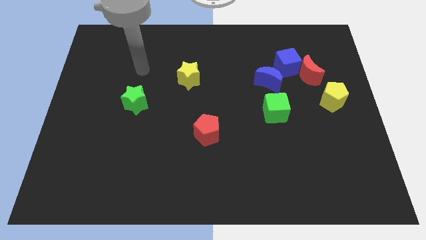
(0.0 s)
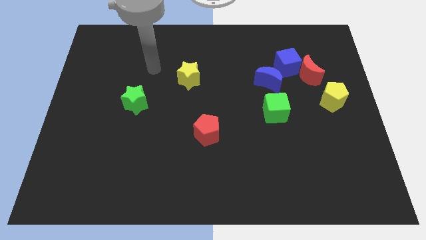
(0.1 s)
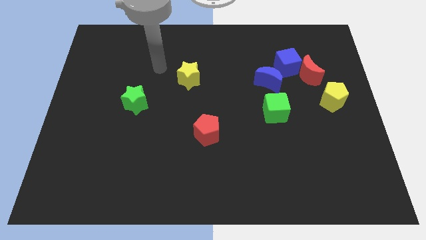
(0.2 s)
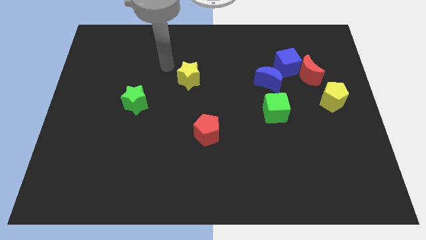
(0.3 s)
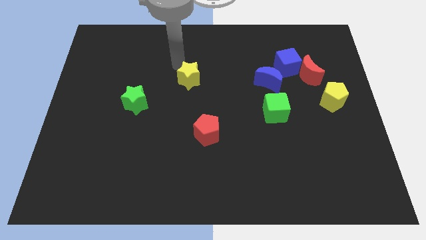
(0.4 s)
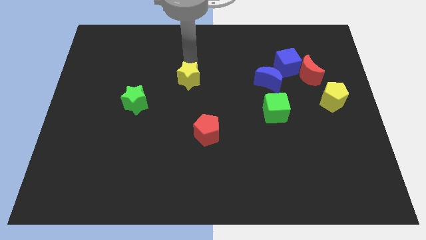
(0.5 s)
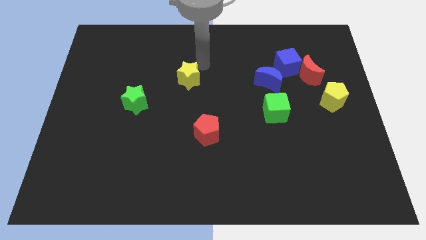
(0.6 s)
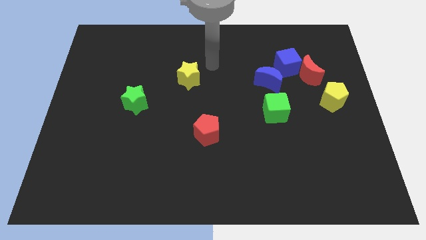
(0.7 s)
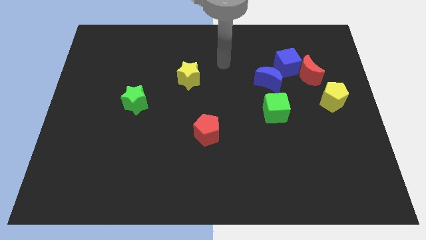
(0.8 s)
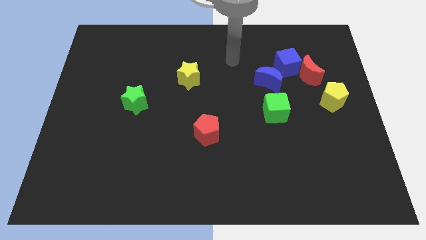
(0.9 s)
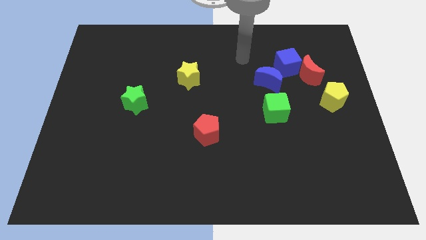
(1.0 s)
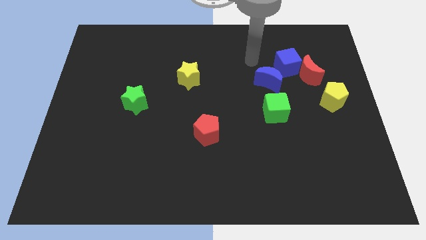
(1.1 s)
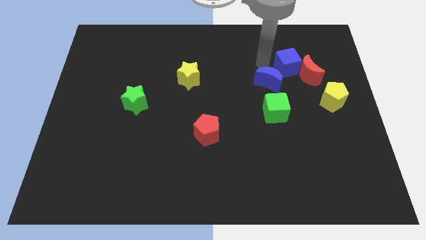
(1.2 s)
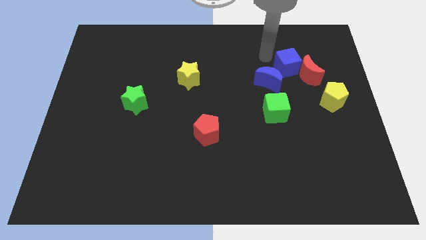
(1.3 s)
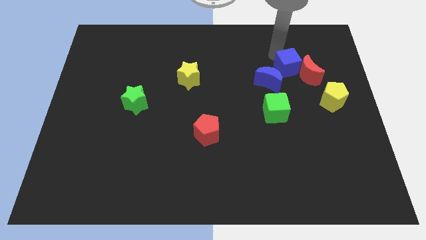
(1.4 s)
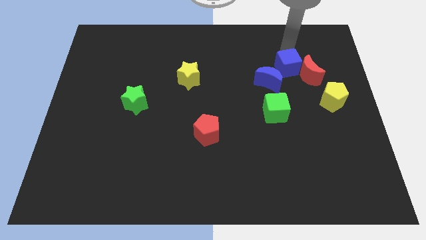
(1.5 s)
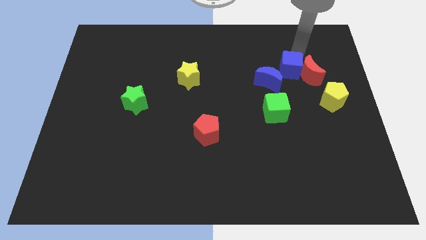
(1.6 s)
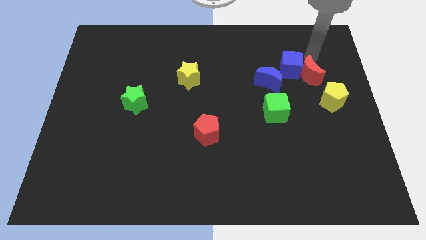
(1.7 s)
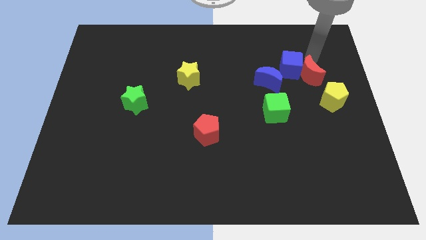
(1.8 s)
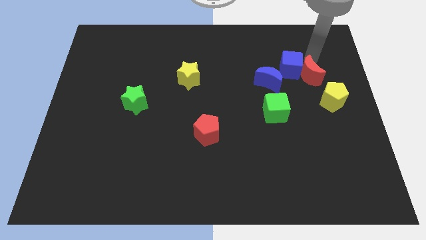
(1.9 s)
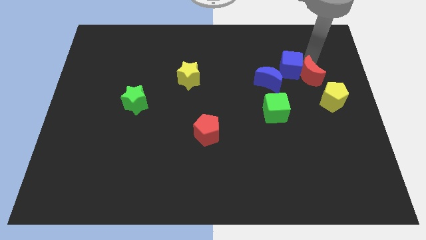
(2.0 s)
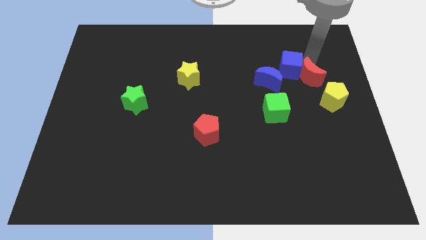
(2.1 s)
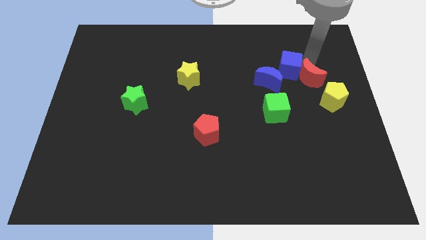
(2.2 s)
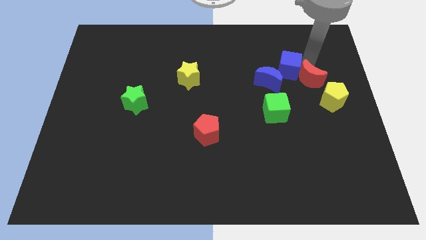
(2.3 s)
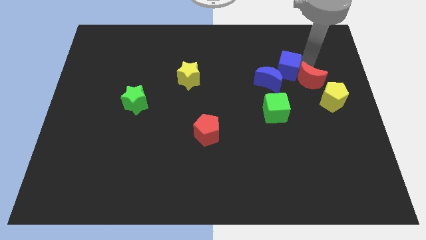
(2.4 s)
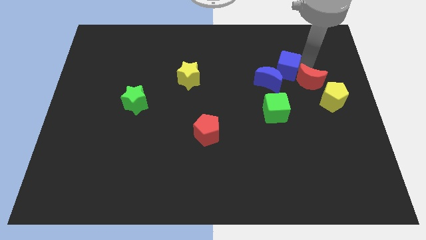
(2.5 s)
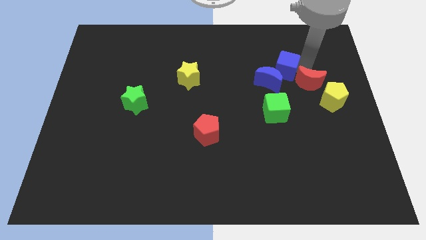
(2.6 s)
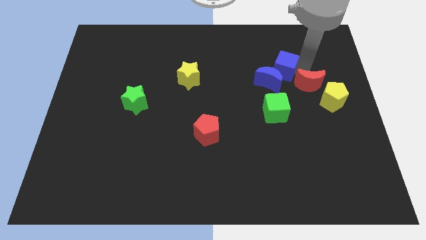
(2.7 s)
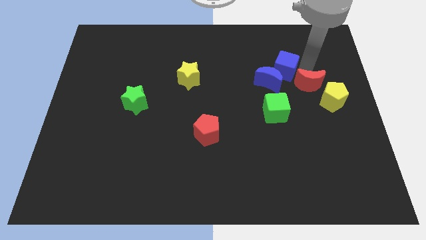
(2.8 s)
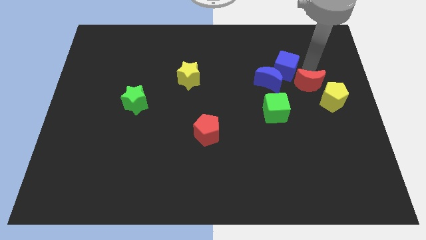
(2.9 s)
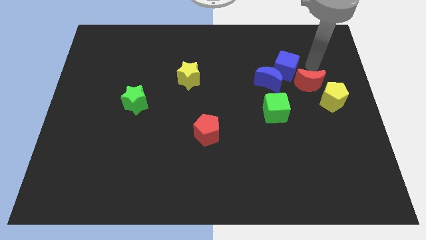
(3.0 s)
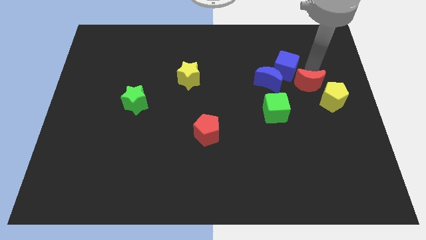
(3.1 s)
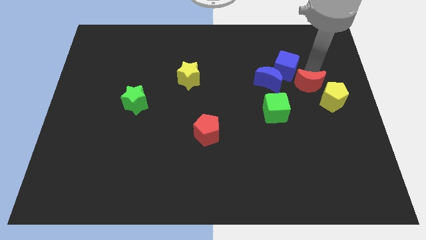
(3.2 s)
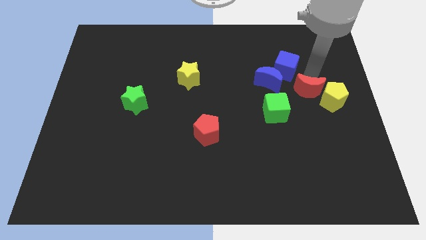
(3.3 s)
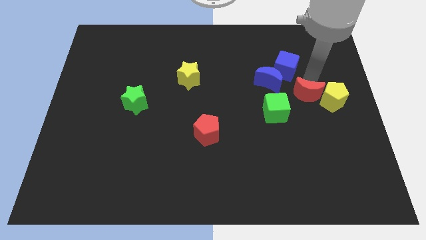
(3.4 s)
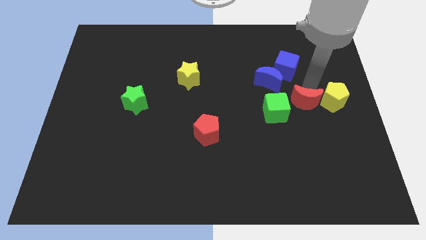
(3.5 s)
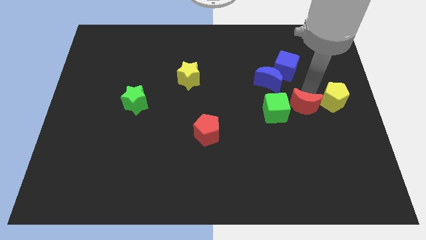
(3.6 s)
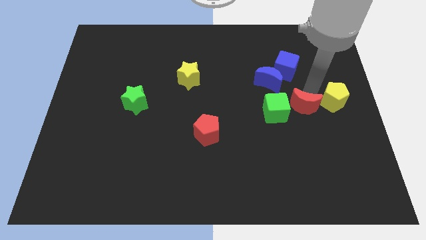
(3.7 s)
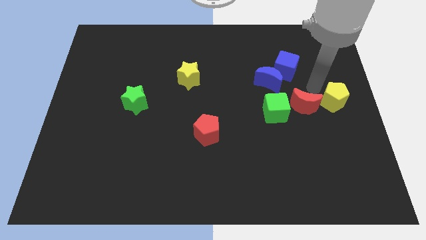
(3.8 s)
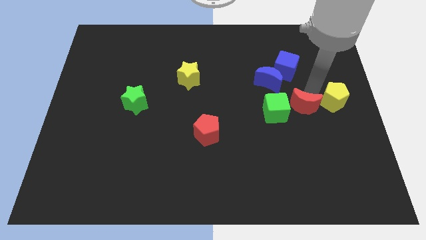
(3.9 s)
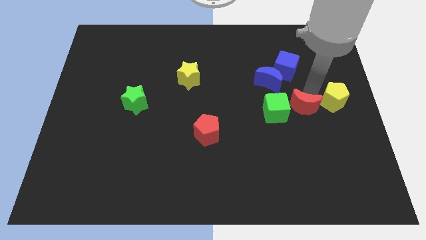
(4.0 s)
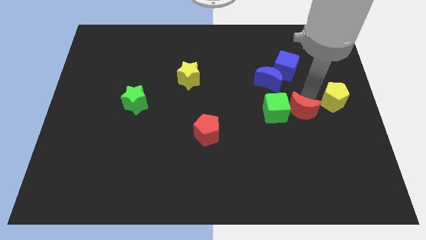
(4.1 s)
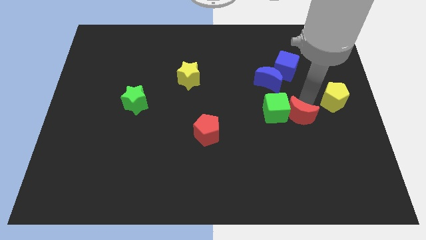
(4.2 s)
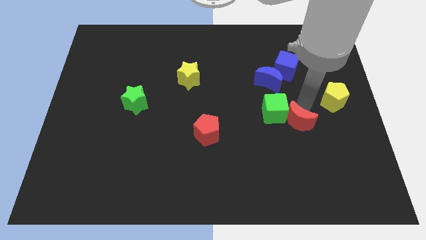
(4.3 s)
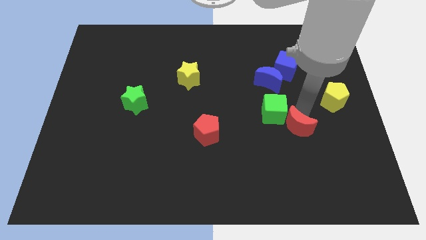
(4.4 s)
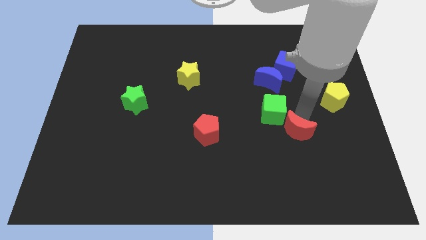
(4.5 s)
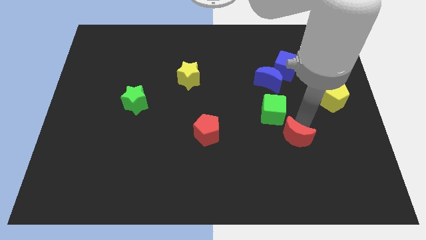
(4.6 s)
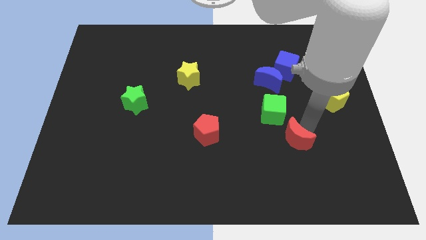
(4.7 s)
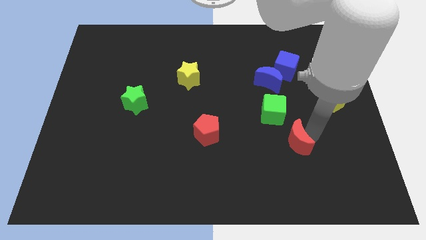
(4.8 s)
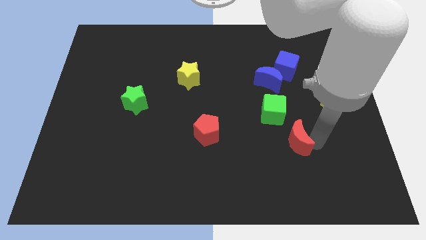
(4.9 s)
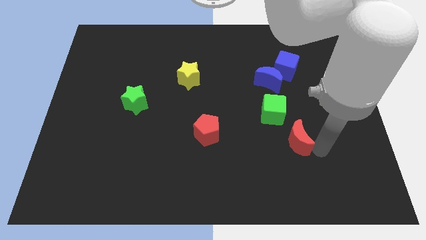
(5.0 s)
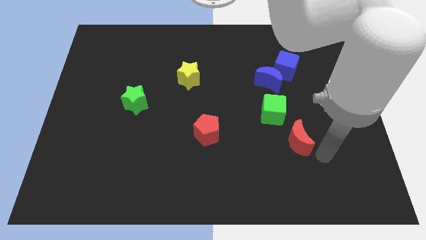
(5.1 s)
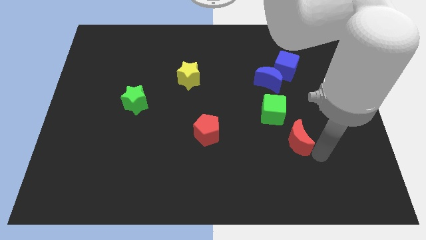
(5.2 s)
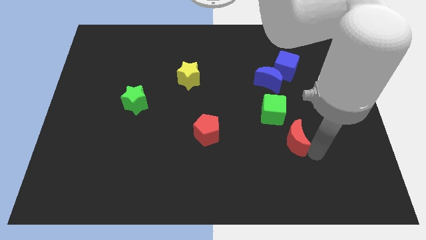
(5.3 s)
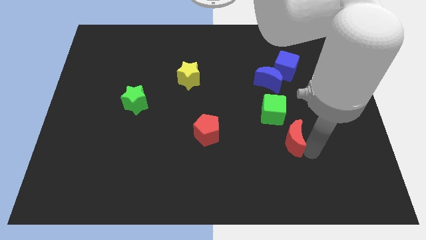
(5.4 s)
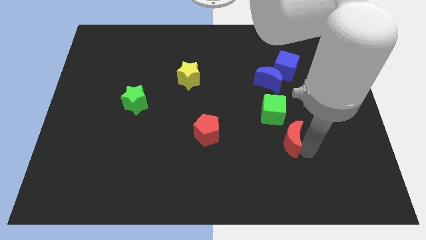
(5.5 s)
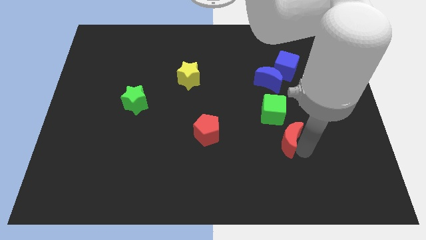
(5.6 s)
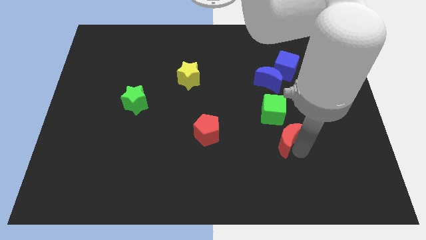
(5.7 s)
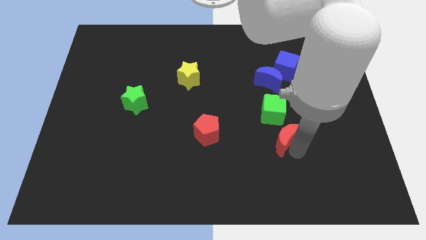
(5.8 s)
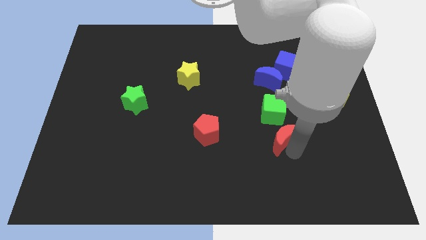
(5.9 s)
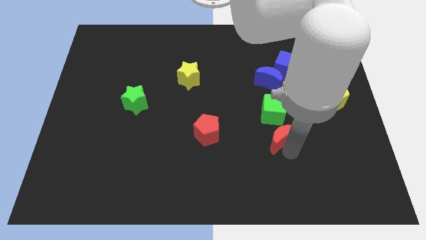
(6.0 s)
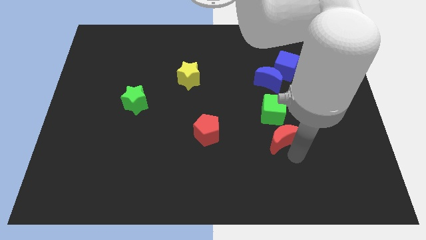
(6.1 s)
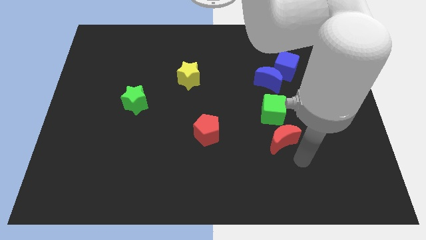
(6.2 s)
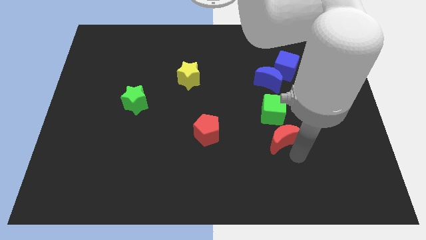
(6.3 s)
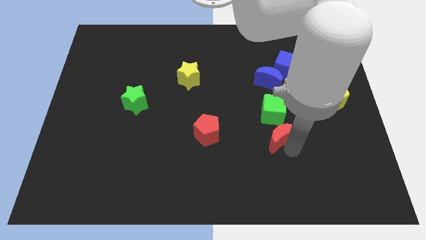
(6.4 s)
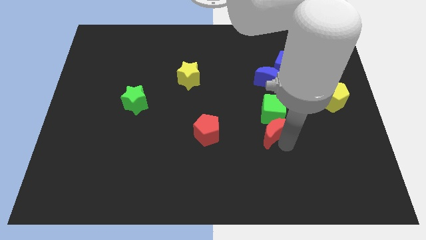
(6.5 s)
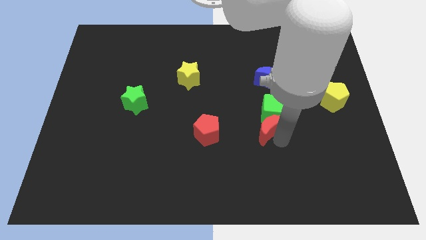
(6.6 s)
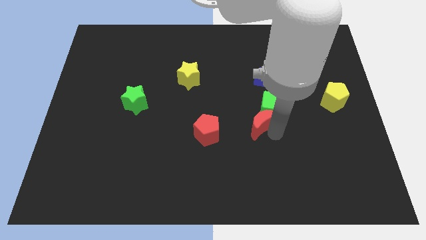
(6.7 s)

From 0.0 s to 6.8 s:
put the red moon to the left side of the green cube

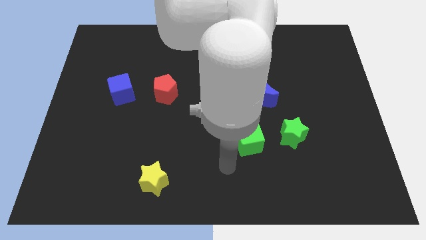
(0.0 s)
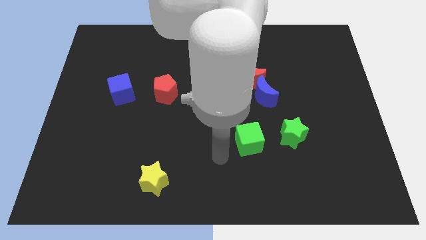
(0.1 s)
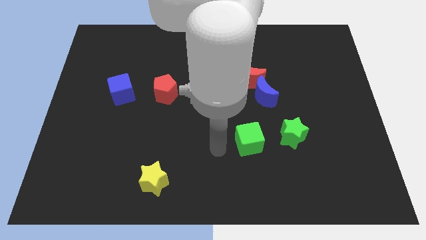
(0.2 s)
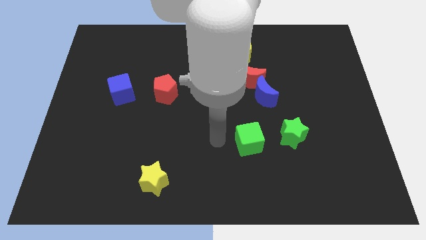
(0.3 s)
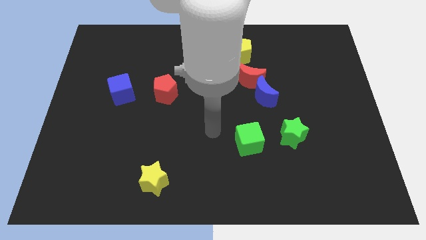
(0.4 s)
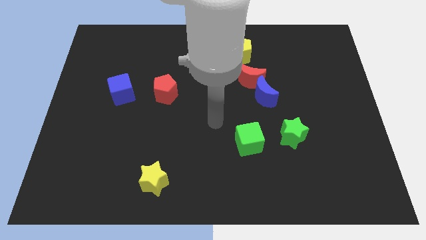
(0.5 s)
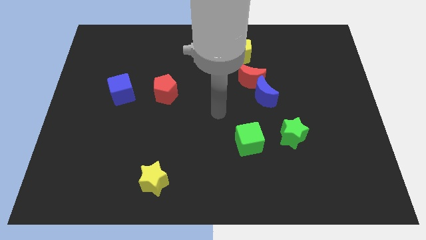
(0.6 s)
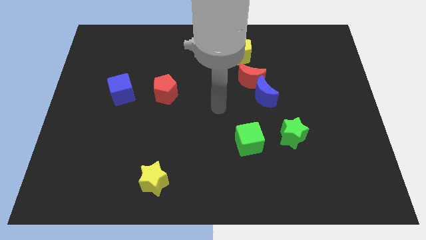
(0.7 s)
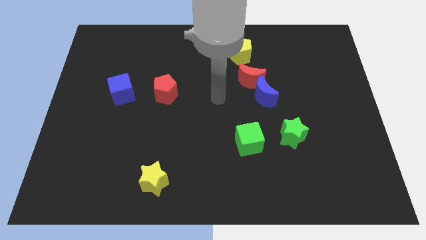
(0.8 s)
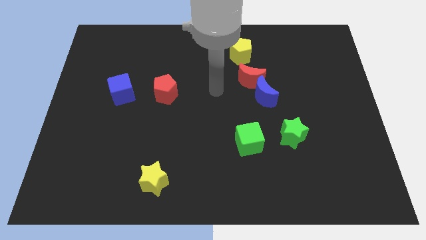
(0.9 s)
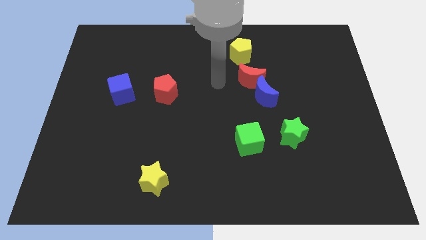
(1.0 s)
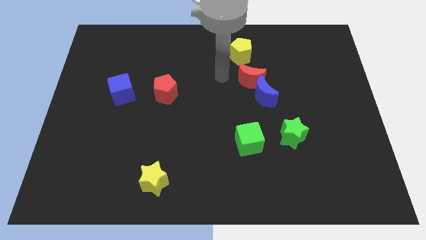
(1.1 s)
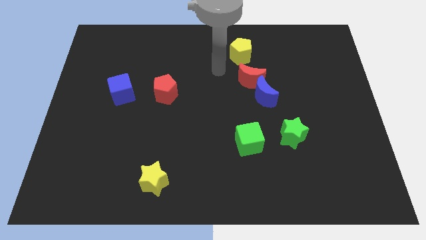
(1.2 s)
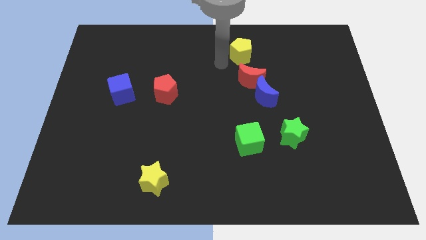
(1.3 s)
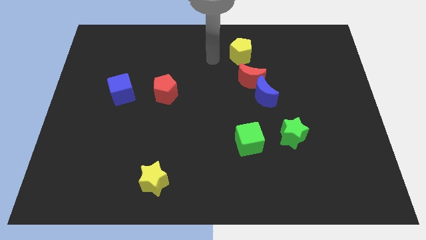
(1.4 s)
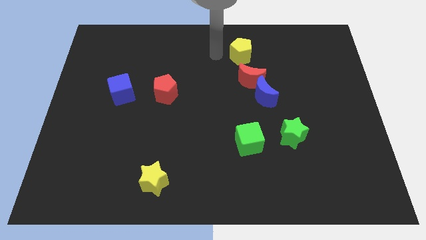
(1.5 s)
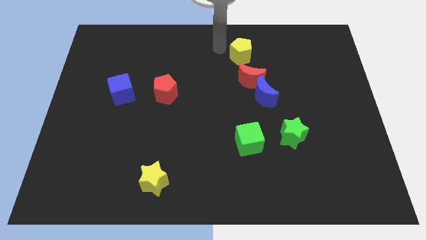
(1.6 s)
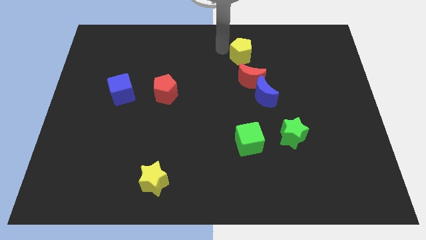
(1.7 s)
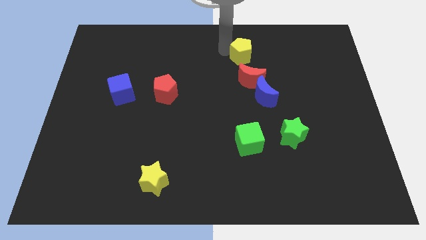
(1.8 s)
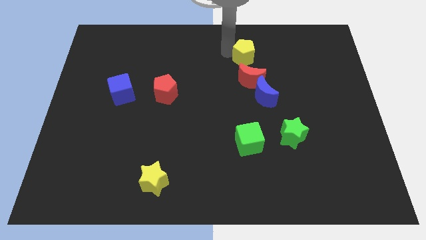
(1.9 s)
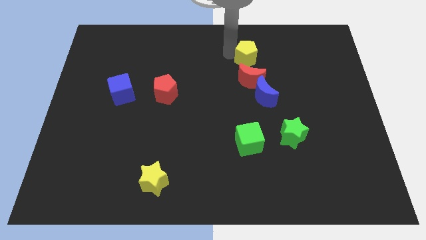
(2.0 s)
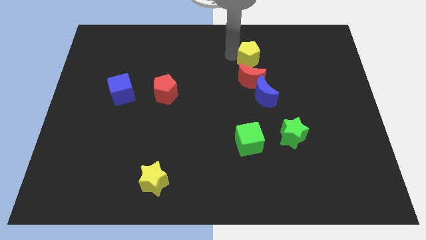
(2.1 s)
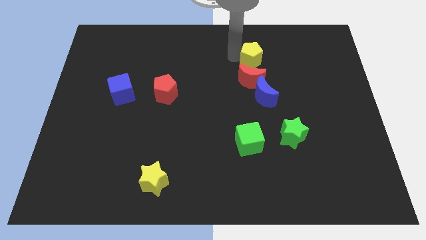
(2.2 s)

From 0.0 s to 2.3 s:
push the yellow pentagon to the top right side of the red moon
